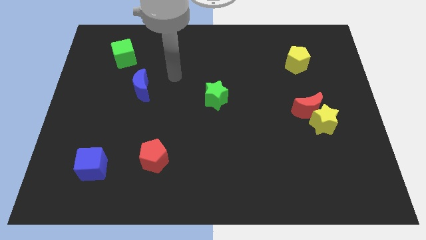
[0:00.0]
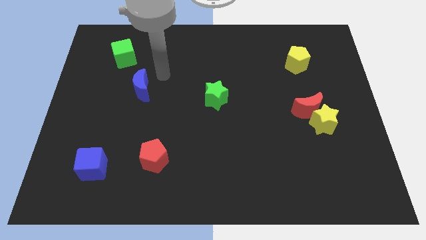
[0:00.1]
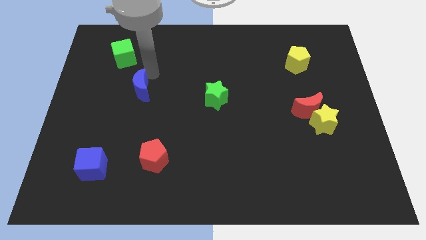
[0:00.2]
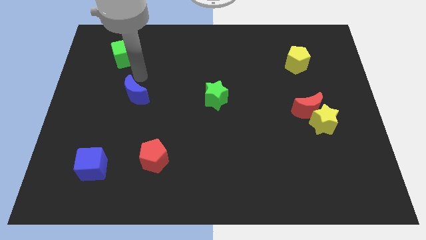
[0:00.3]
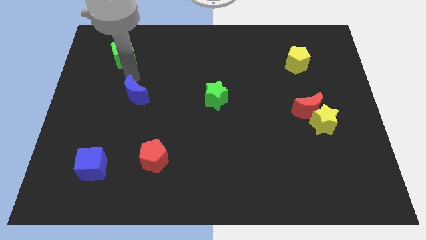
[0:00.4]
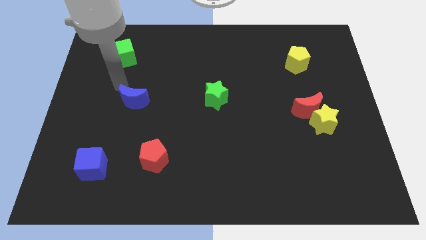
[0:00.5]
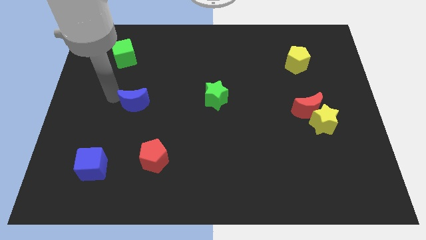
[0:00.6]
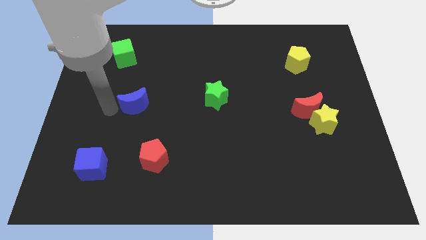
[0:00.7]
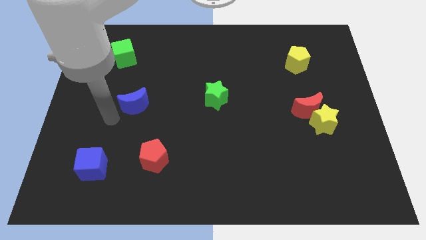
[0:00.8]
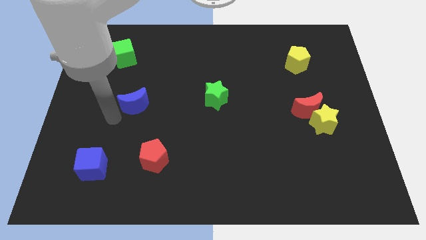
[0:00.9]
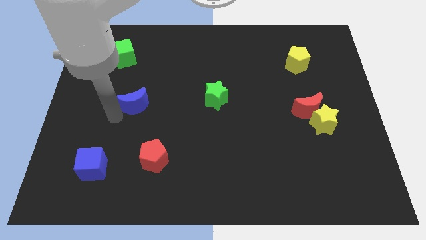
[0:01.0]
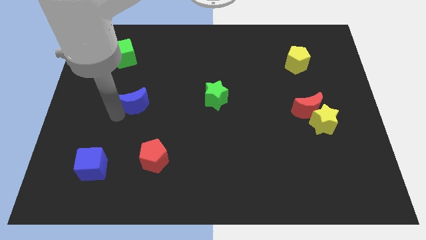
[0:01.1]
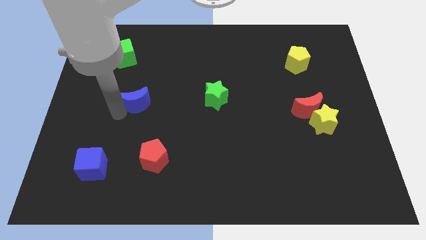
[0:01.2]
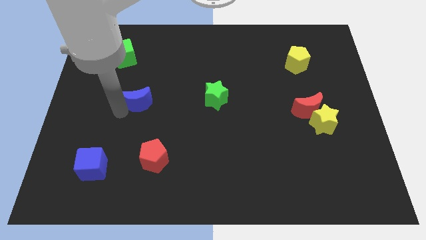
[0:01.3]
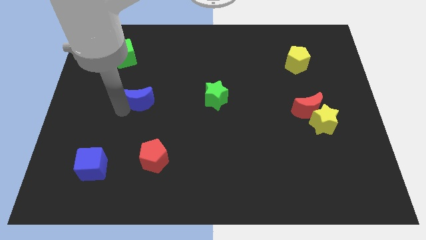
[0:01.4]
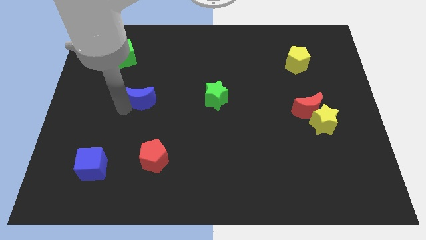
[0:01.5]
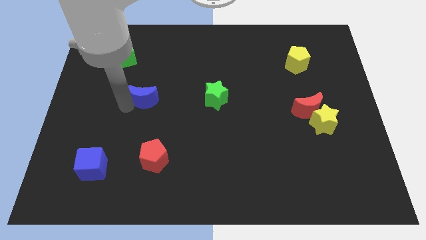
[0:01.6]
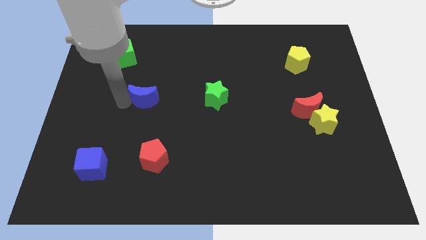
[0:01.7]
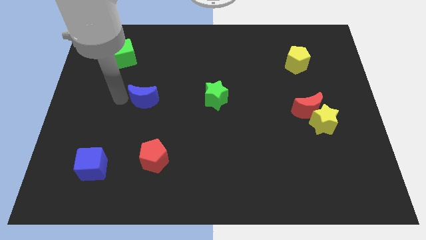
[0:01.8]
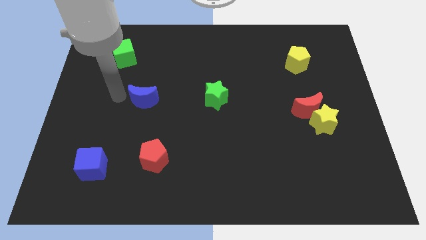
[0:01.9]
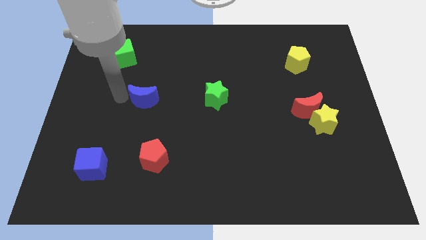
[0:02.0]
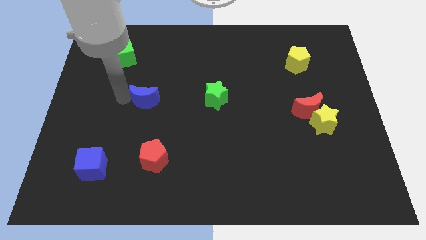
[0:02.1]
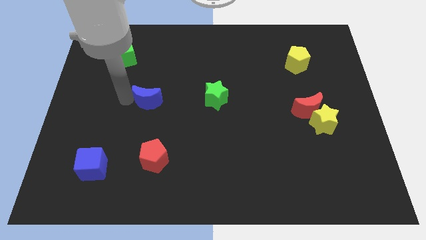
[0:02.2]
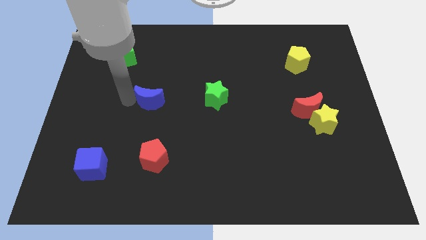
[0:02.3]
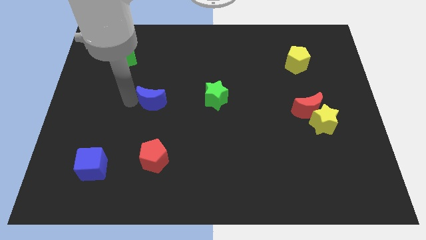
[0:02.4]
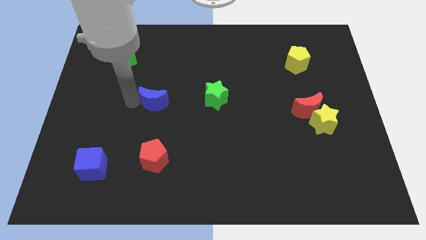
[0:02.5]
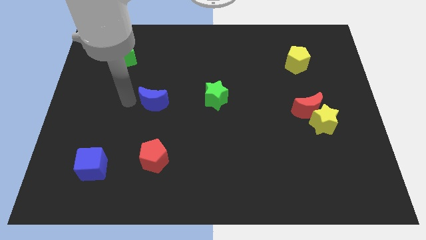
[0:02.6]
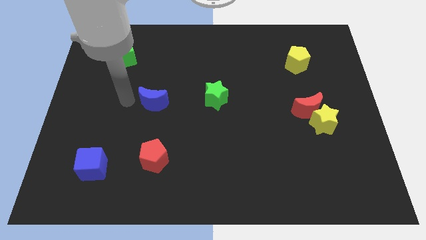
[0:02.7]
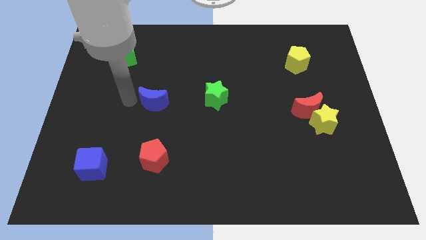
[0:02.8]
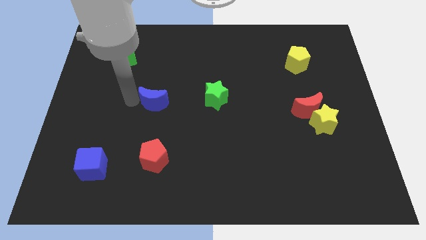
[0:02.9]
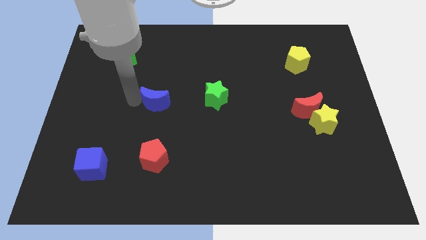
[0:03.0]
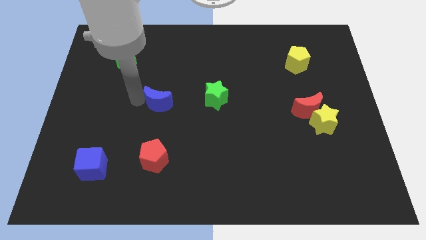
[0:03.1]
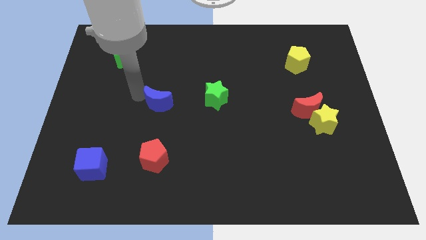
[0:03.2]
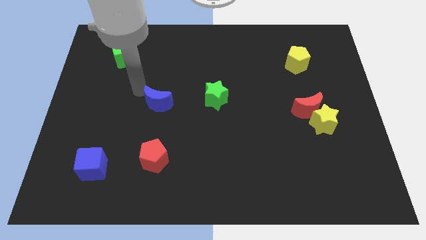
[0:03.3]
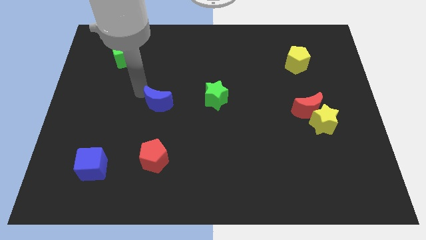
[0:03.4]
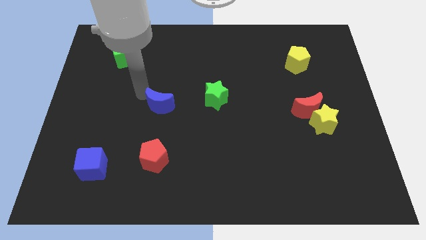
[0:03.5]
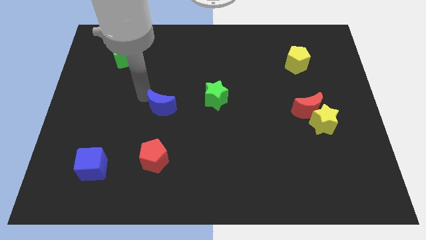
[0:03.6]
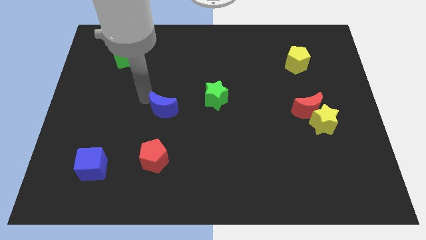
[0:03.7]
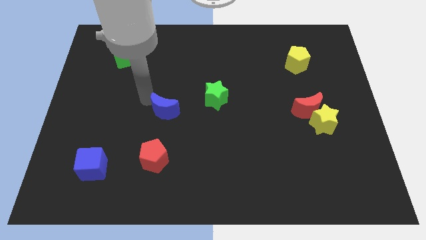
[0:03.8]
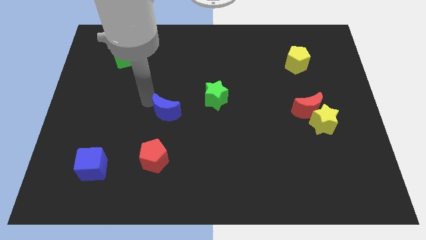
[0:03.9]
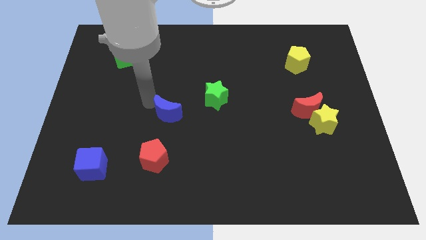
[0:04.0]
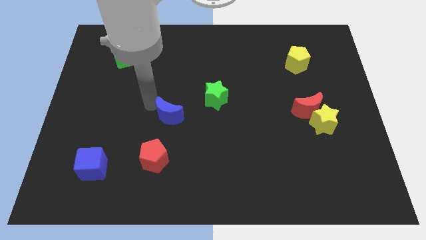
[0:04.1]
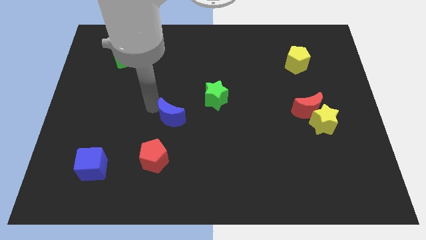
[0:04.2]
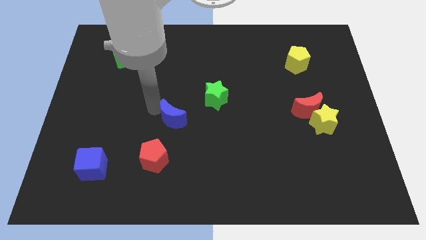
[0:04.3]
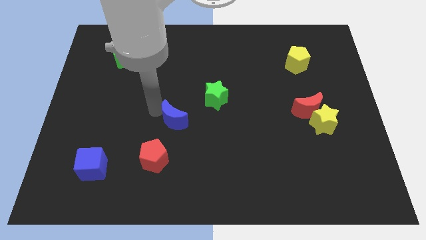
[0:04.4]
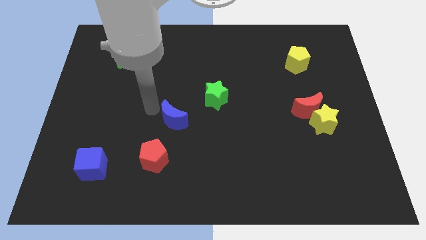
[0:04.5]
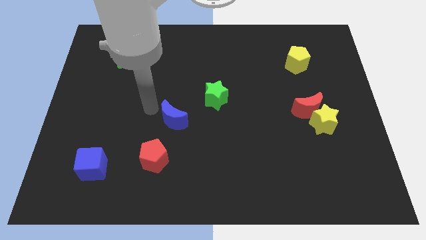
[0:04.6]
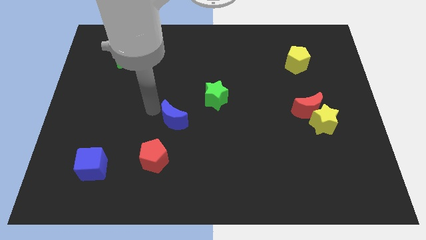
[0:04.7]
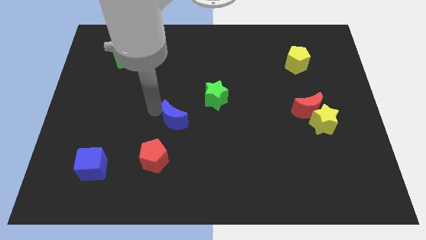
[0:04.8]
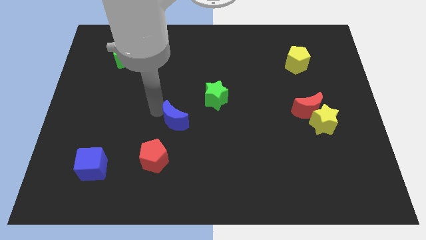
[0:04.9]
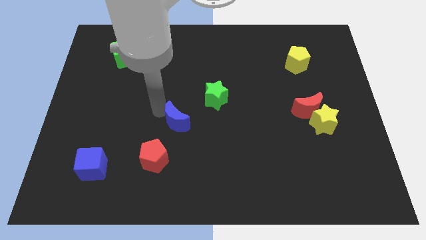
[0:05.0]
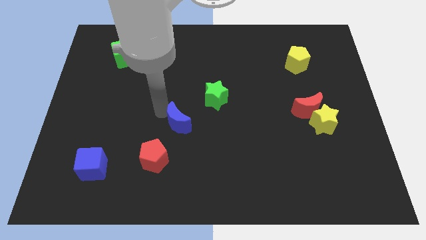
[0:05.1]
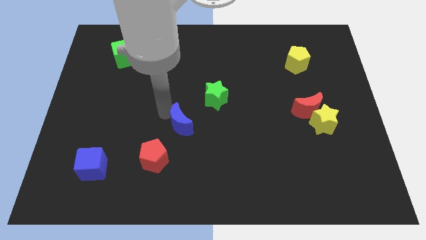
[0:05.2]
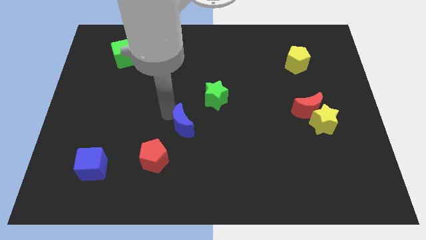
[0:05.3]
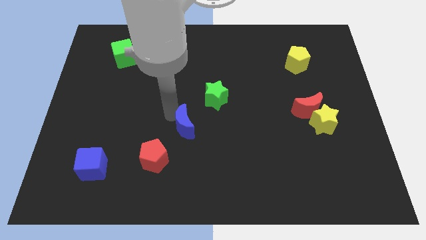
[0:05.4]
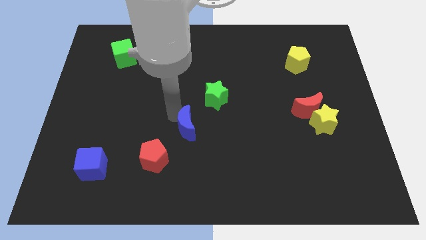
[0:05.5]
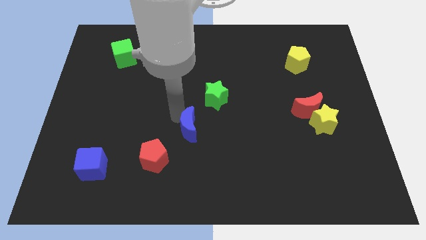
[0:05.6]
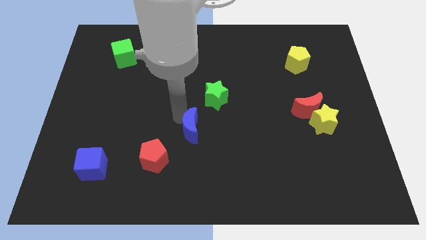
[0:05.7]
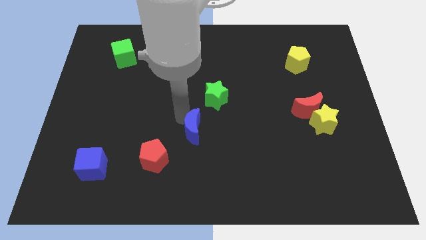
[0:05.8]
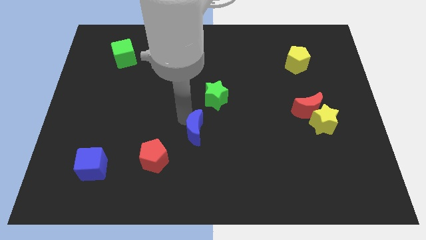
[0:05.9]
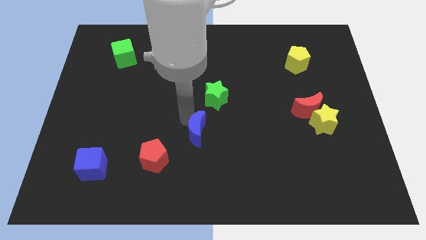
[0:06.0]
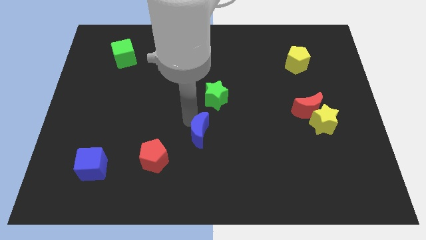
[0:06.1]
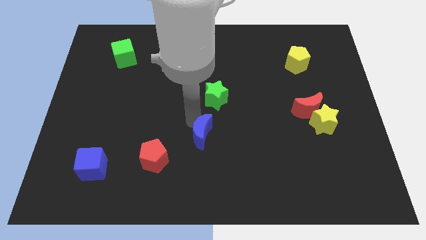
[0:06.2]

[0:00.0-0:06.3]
push the blue moon downwards and right

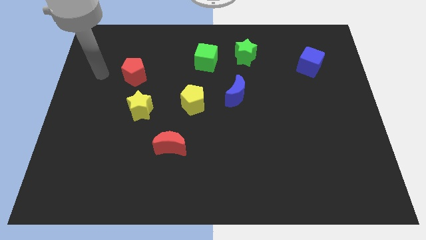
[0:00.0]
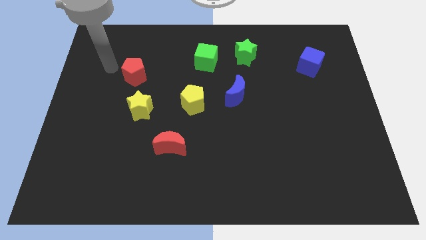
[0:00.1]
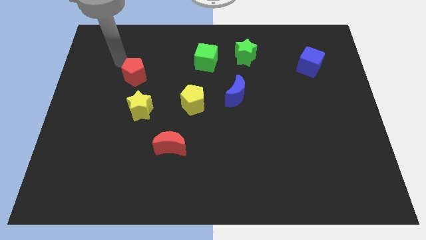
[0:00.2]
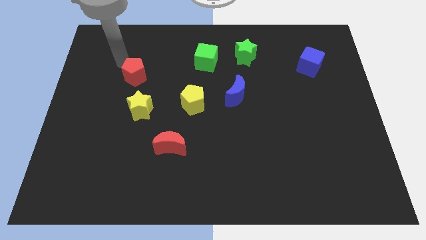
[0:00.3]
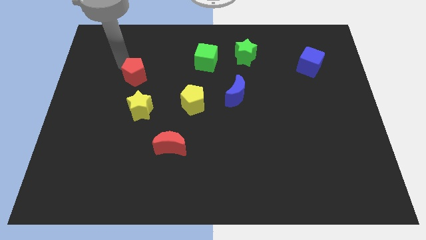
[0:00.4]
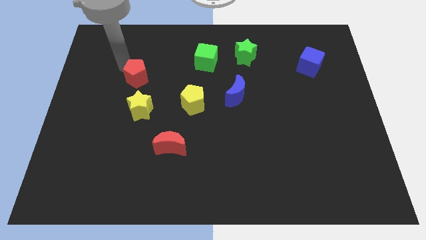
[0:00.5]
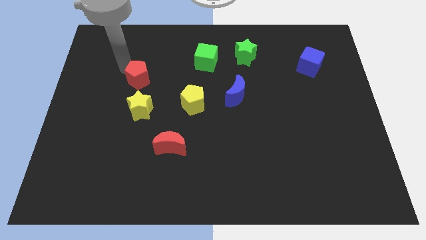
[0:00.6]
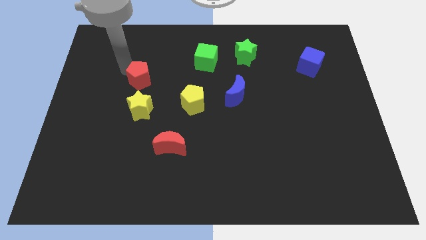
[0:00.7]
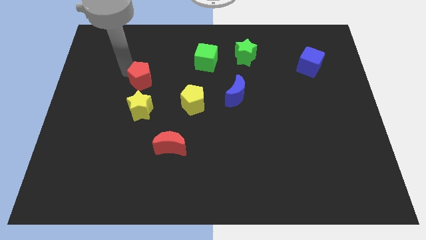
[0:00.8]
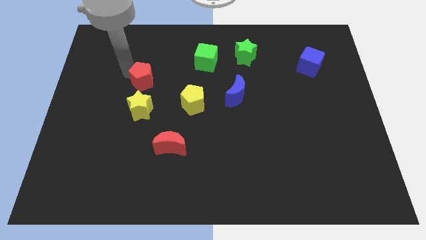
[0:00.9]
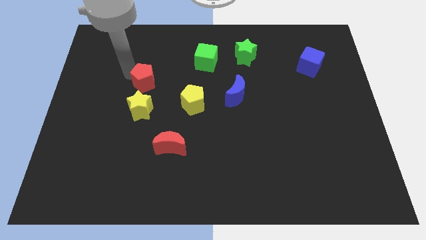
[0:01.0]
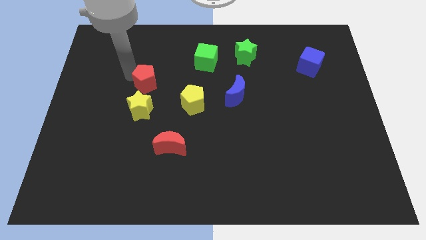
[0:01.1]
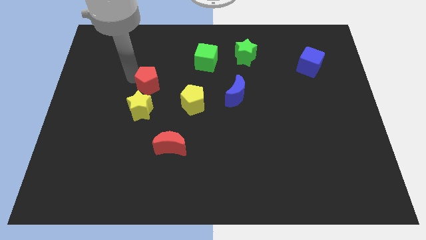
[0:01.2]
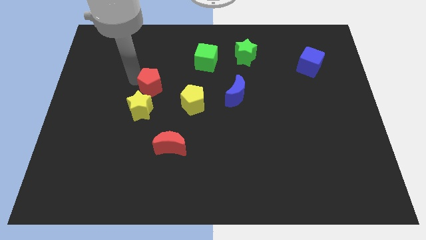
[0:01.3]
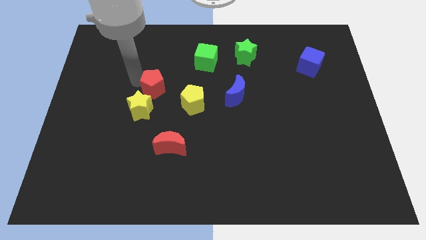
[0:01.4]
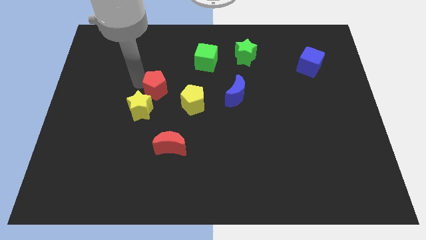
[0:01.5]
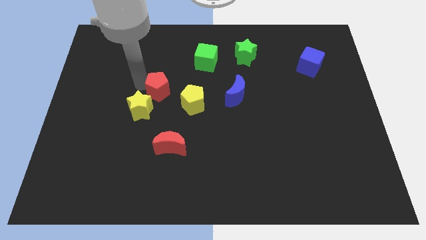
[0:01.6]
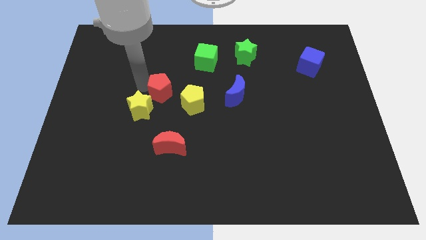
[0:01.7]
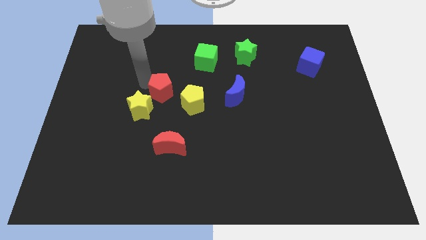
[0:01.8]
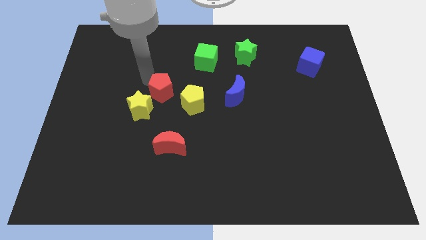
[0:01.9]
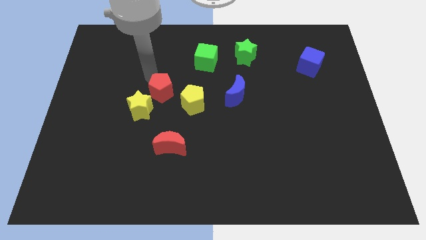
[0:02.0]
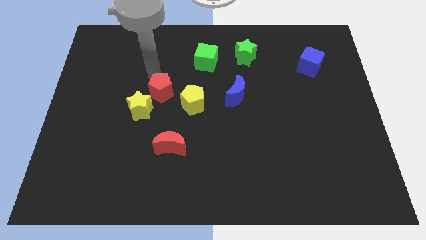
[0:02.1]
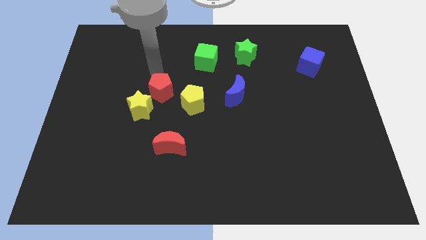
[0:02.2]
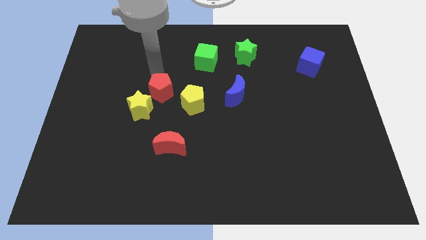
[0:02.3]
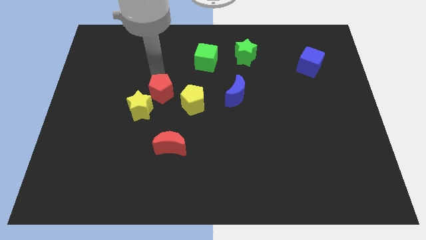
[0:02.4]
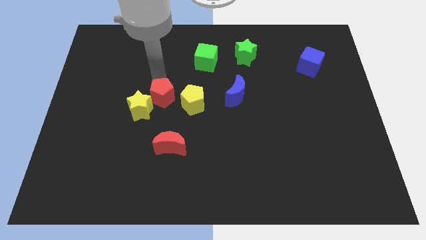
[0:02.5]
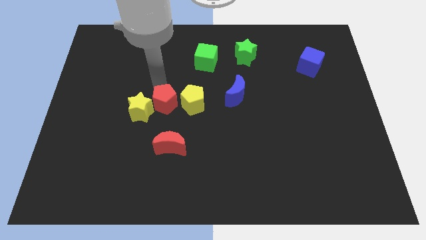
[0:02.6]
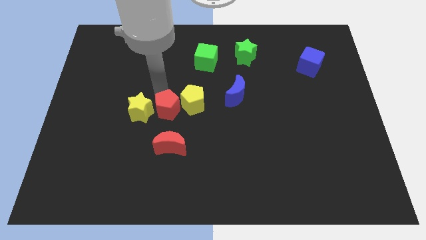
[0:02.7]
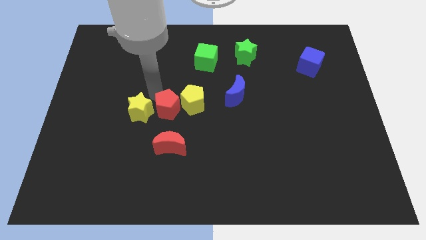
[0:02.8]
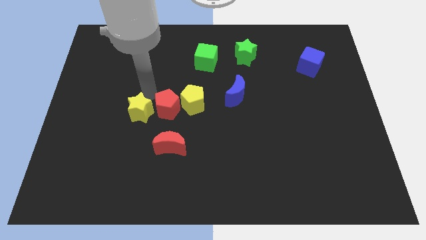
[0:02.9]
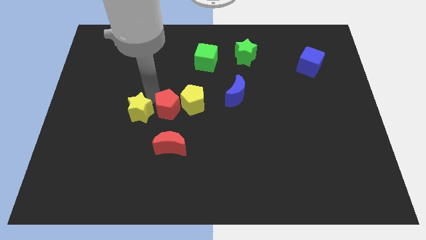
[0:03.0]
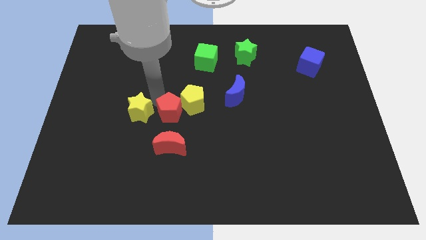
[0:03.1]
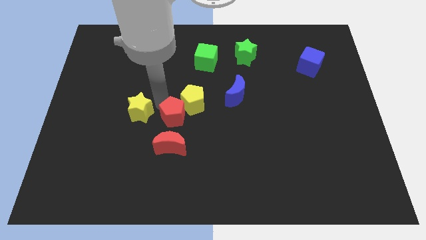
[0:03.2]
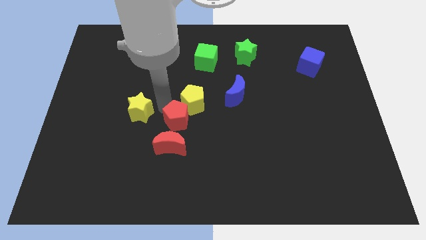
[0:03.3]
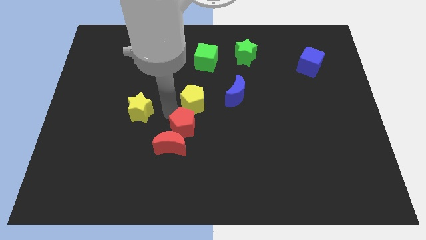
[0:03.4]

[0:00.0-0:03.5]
move the red pentagon downwards and to the right
